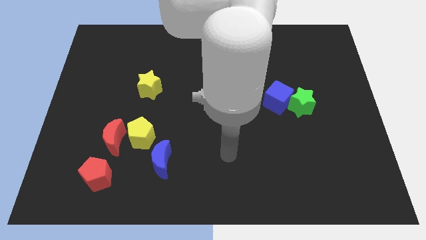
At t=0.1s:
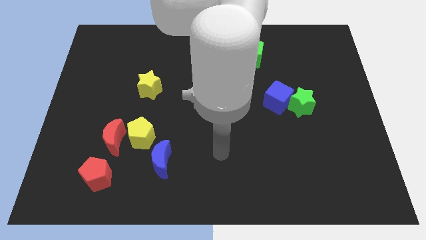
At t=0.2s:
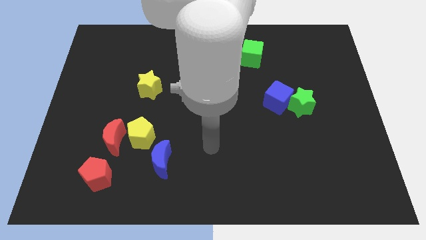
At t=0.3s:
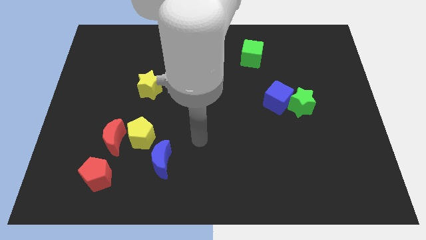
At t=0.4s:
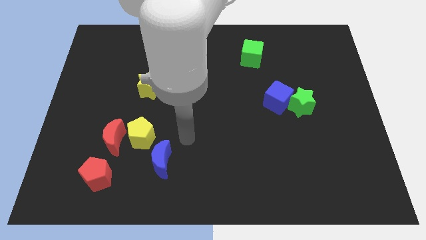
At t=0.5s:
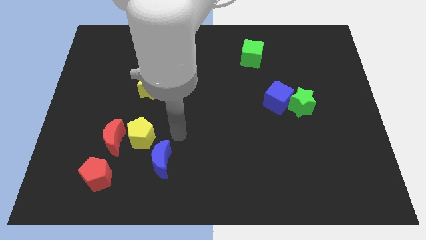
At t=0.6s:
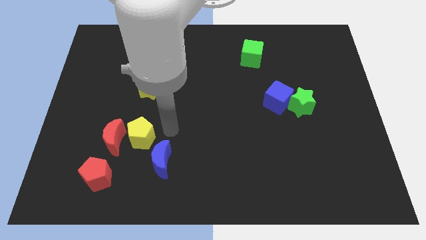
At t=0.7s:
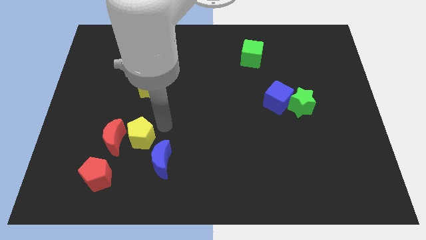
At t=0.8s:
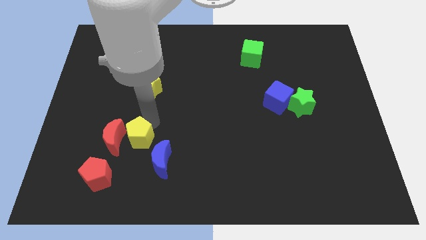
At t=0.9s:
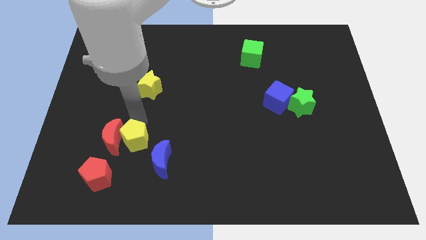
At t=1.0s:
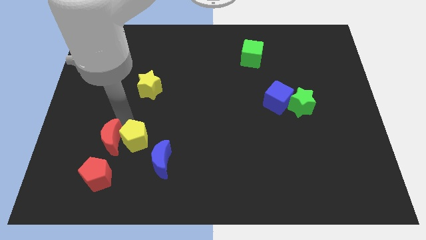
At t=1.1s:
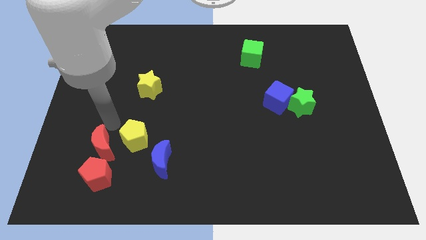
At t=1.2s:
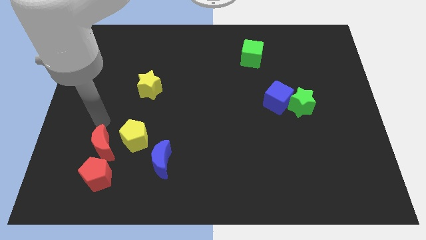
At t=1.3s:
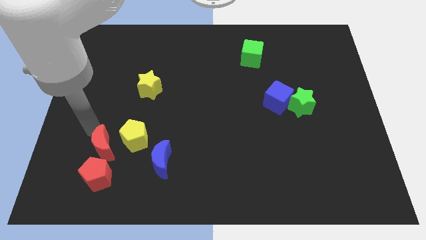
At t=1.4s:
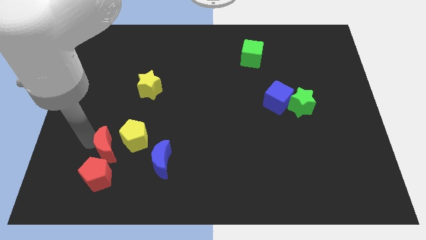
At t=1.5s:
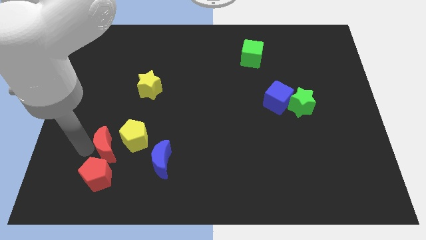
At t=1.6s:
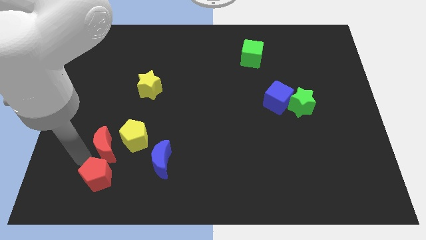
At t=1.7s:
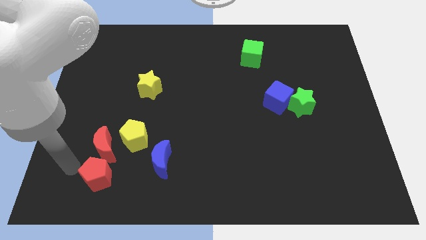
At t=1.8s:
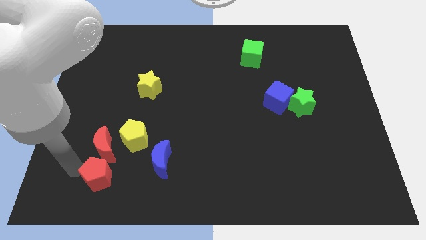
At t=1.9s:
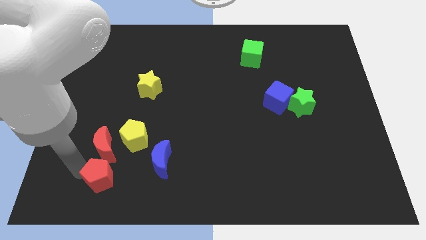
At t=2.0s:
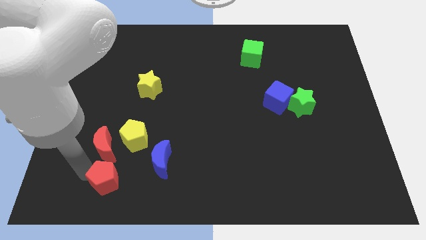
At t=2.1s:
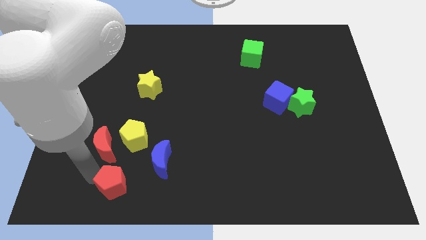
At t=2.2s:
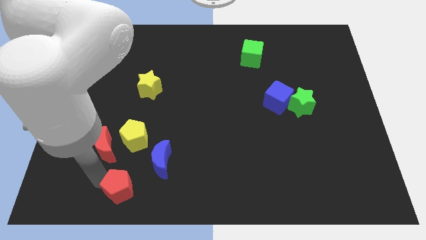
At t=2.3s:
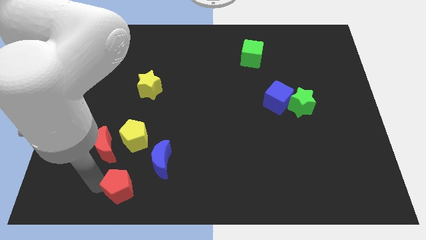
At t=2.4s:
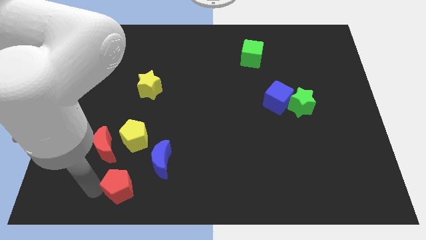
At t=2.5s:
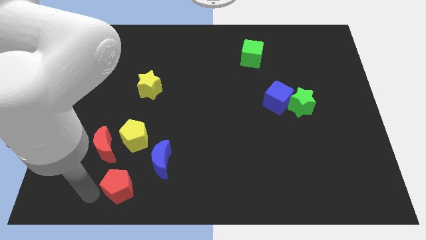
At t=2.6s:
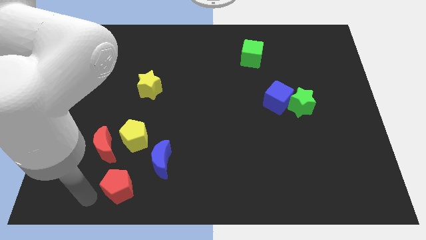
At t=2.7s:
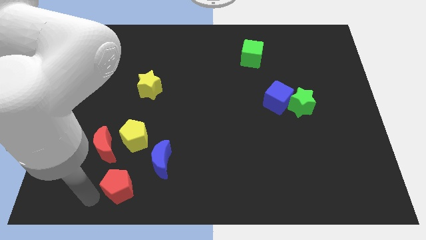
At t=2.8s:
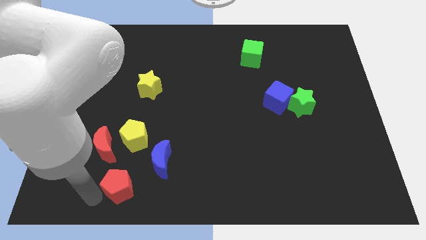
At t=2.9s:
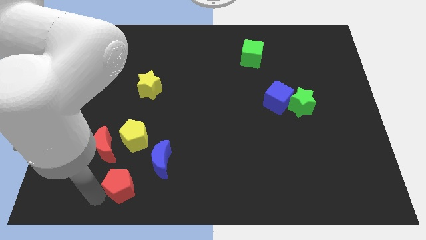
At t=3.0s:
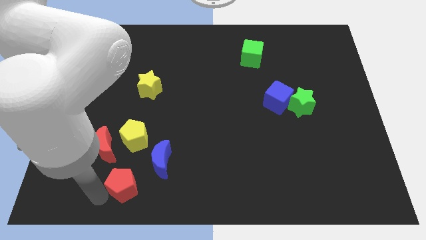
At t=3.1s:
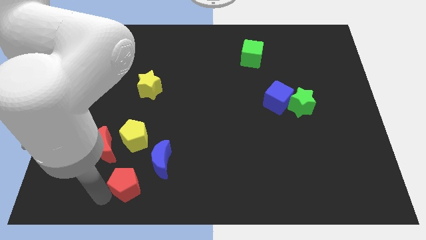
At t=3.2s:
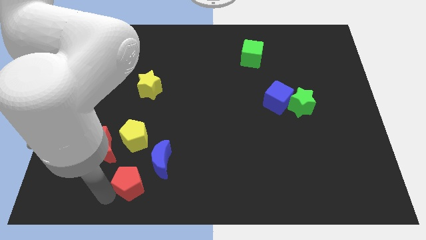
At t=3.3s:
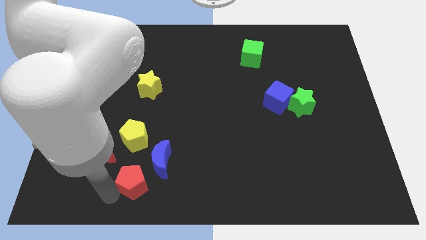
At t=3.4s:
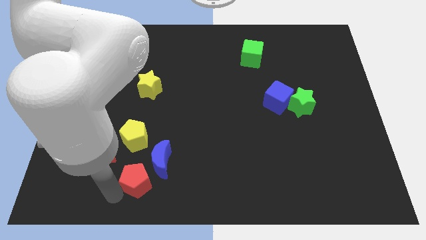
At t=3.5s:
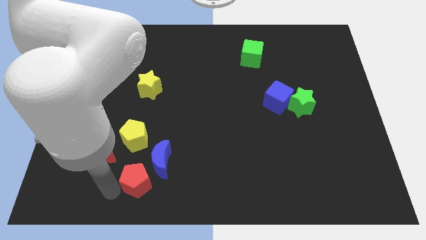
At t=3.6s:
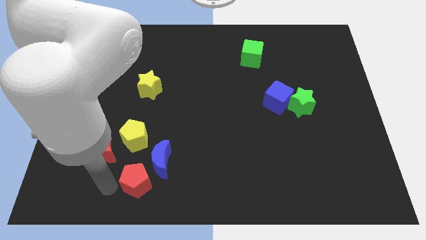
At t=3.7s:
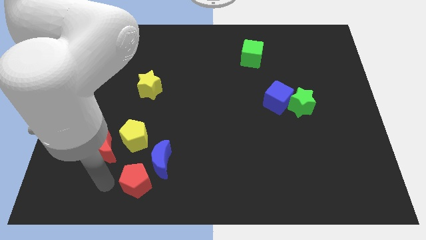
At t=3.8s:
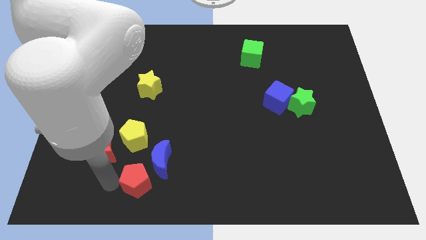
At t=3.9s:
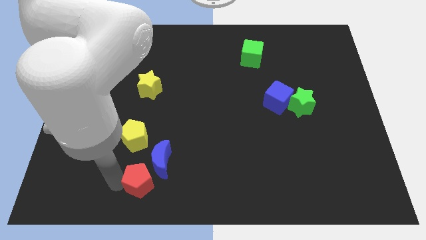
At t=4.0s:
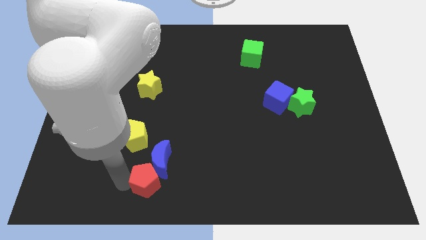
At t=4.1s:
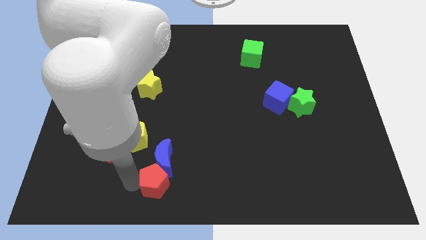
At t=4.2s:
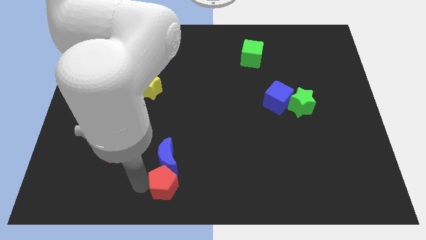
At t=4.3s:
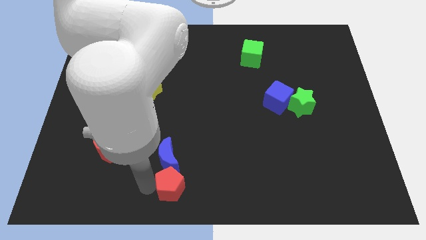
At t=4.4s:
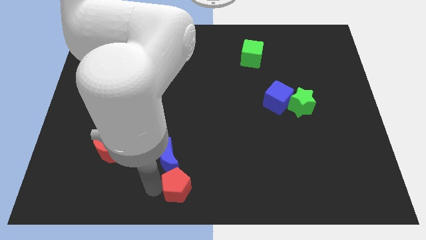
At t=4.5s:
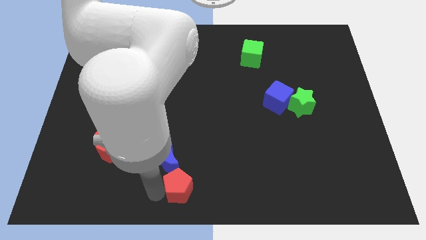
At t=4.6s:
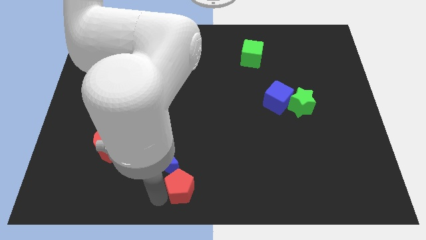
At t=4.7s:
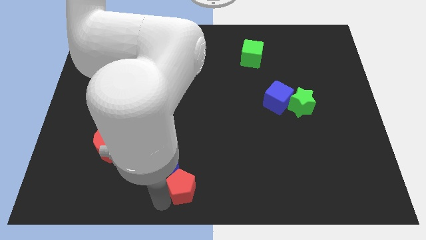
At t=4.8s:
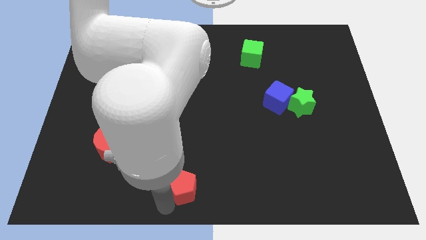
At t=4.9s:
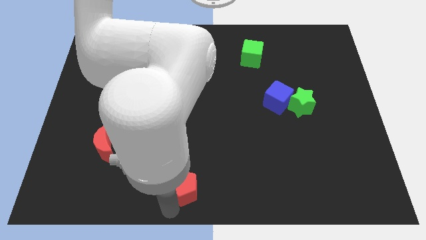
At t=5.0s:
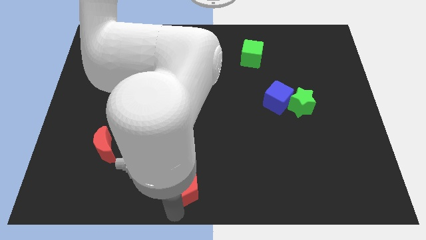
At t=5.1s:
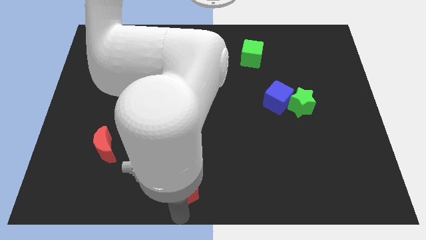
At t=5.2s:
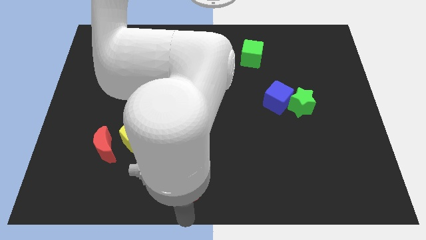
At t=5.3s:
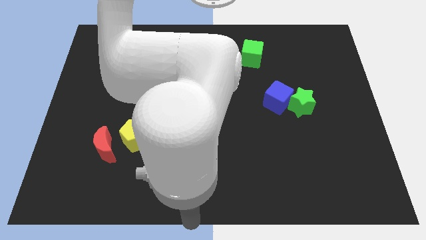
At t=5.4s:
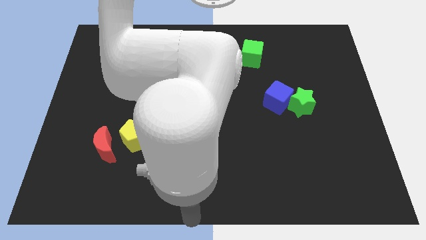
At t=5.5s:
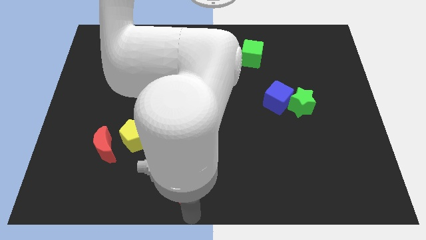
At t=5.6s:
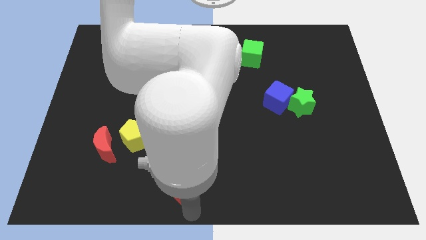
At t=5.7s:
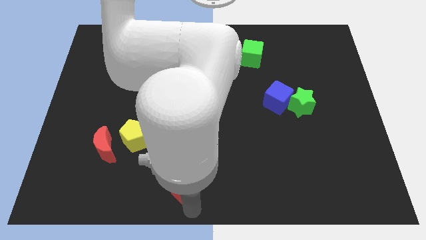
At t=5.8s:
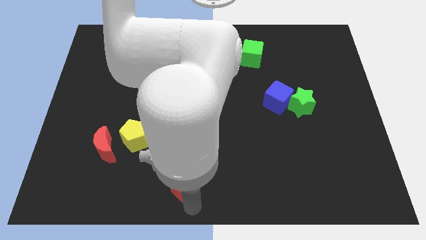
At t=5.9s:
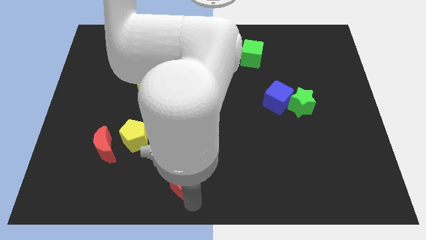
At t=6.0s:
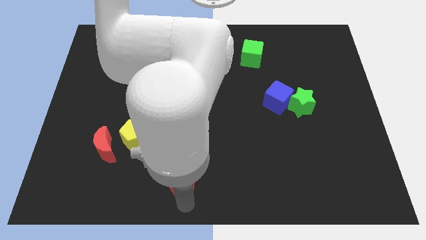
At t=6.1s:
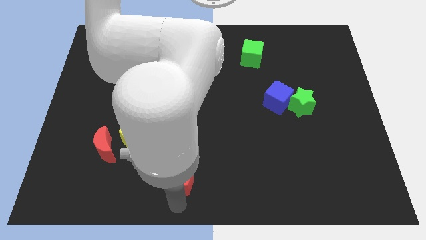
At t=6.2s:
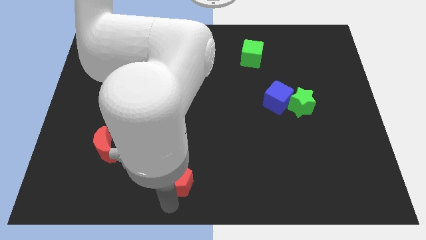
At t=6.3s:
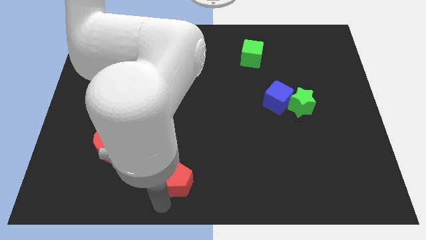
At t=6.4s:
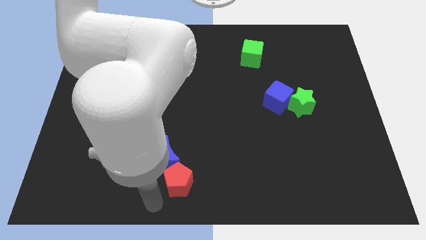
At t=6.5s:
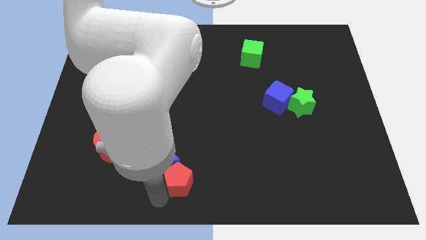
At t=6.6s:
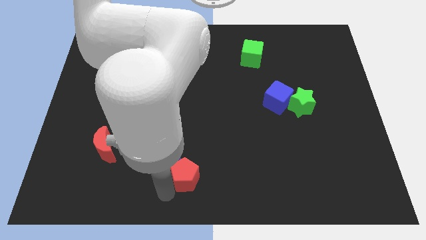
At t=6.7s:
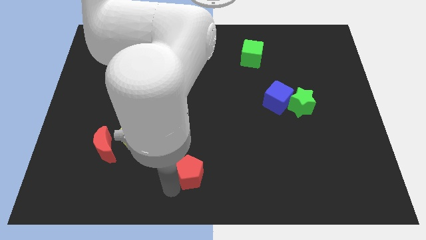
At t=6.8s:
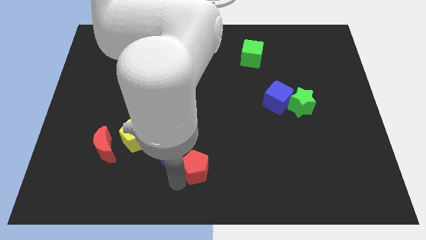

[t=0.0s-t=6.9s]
push the red pentagon to the right

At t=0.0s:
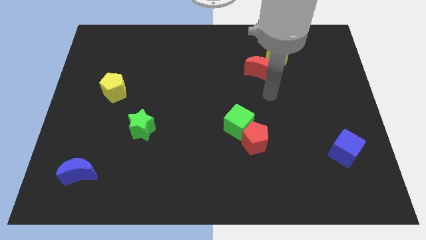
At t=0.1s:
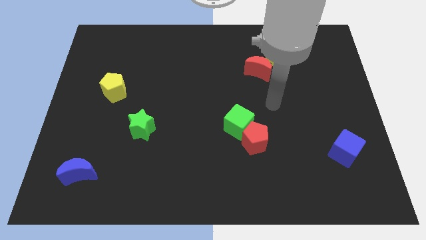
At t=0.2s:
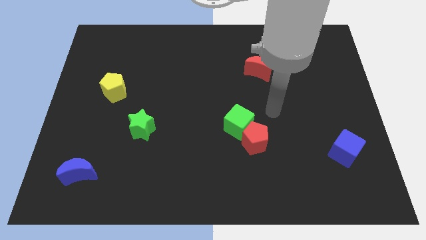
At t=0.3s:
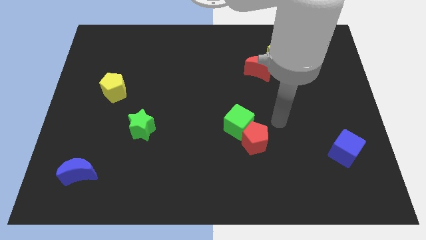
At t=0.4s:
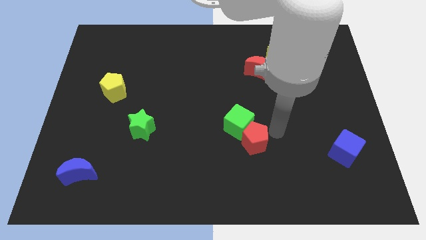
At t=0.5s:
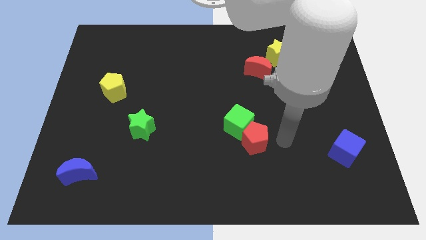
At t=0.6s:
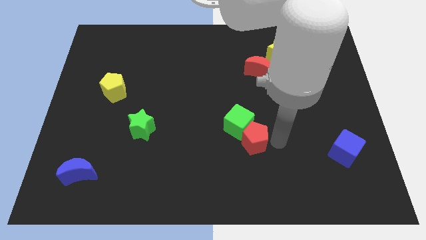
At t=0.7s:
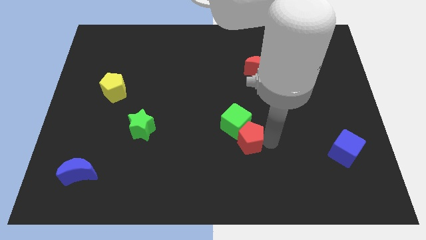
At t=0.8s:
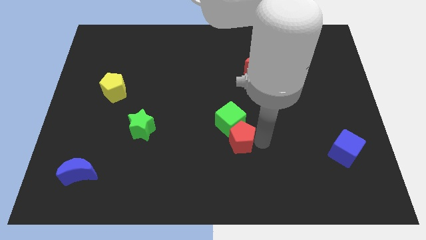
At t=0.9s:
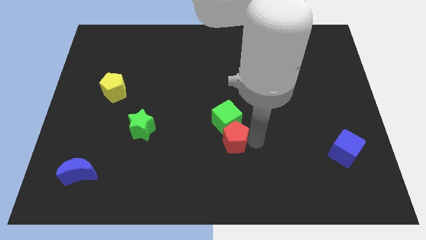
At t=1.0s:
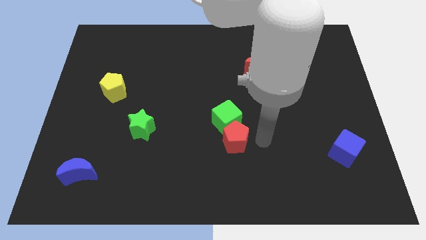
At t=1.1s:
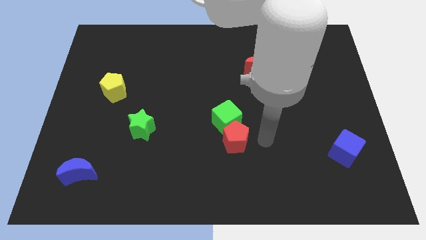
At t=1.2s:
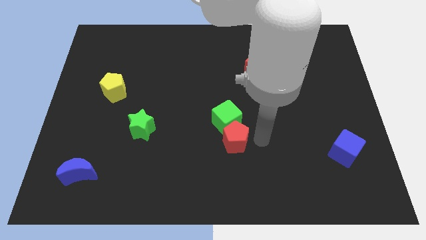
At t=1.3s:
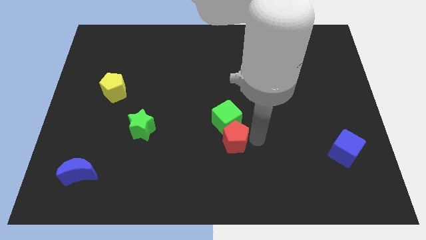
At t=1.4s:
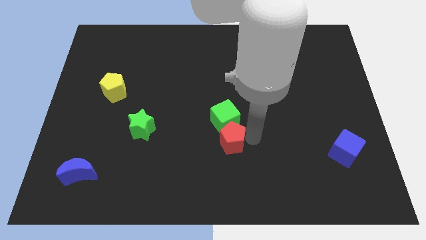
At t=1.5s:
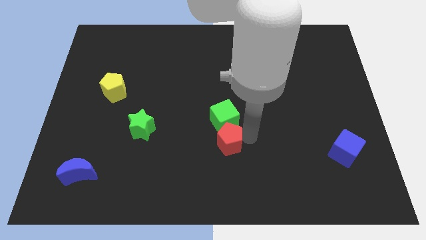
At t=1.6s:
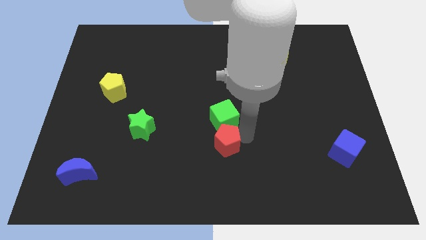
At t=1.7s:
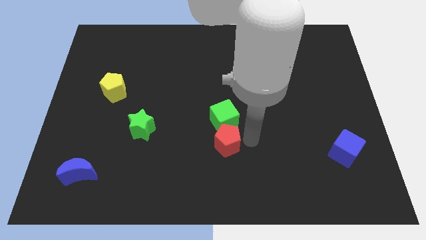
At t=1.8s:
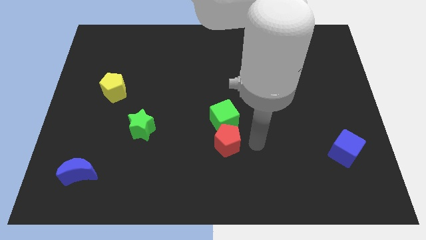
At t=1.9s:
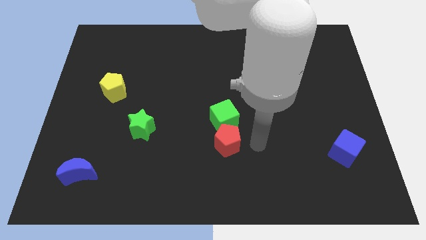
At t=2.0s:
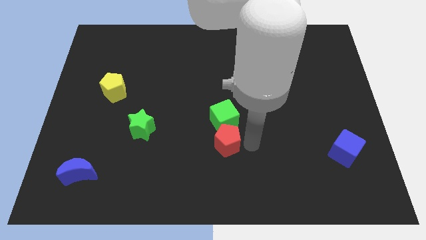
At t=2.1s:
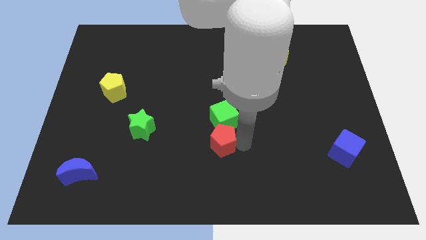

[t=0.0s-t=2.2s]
push the red pentagon left a little
